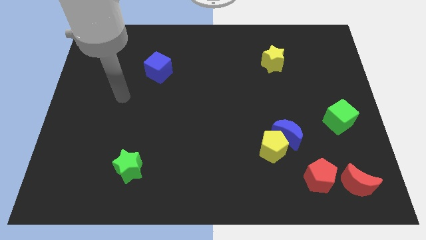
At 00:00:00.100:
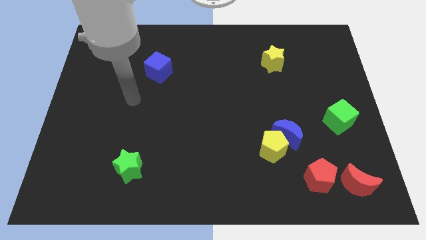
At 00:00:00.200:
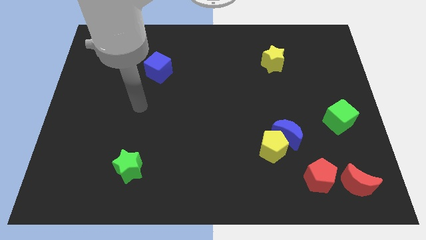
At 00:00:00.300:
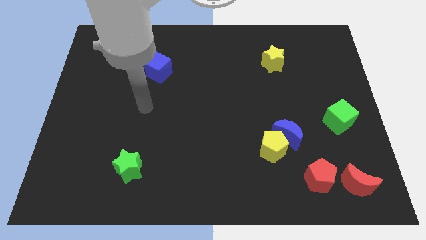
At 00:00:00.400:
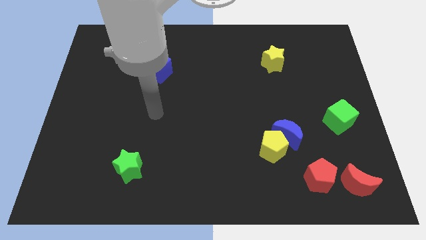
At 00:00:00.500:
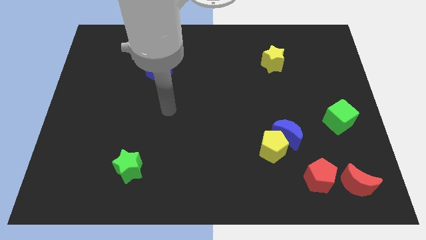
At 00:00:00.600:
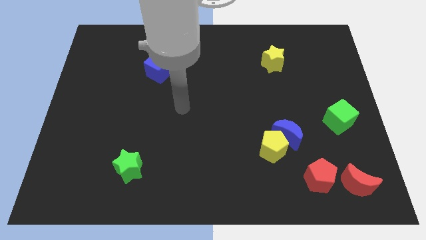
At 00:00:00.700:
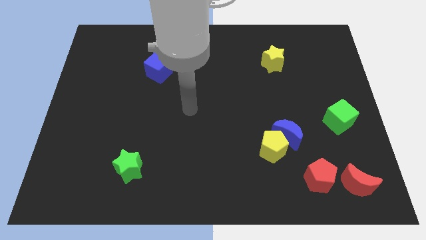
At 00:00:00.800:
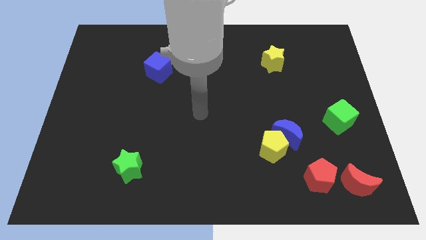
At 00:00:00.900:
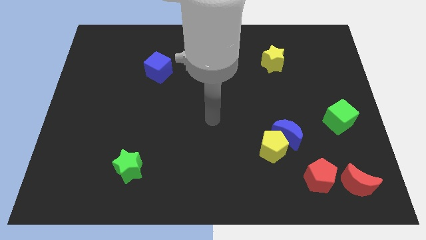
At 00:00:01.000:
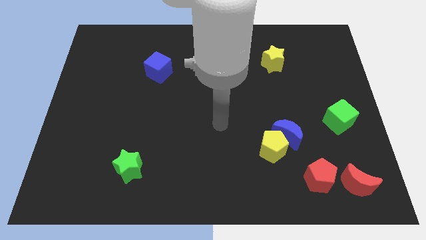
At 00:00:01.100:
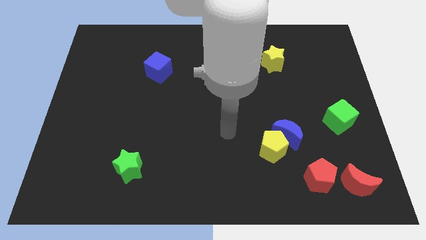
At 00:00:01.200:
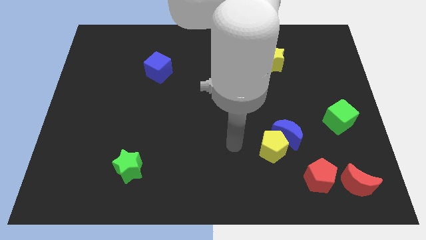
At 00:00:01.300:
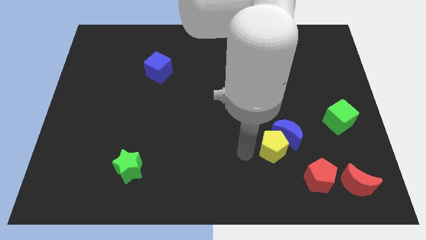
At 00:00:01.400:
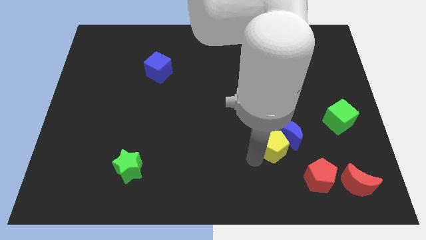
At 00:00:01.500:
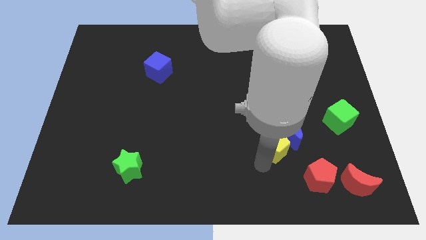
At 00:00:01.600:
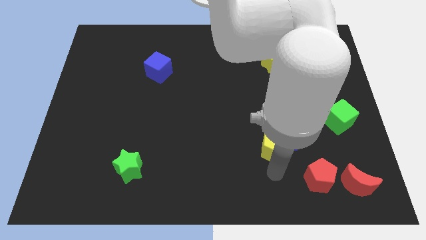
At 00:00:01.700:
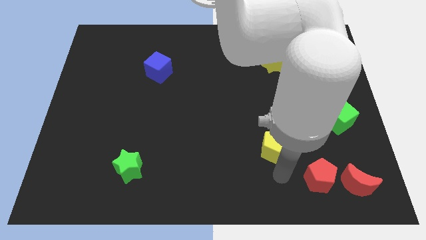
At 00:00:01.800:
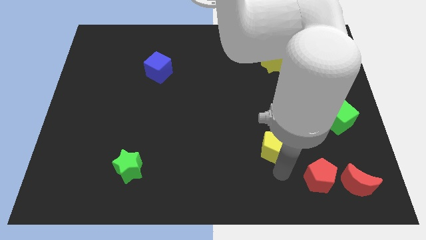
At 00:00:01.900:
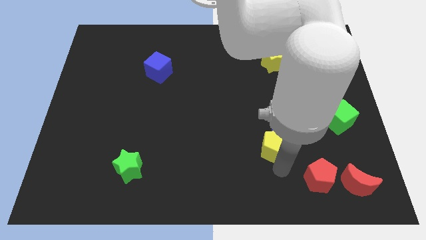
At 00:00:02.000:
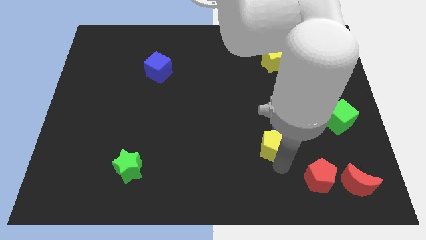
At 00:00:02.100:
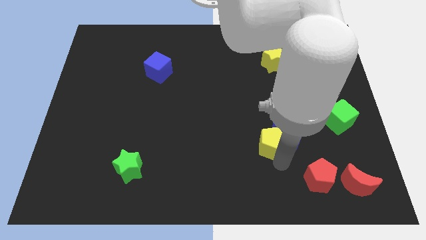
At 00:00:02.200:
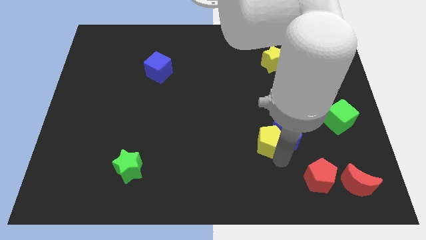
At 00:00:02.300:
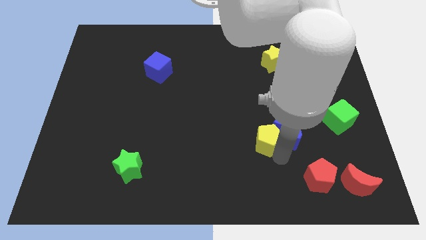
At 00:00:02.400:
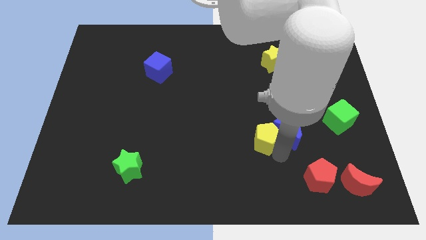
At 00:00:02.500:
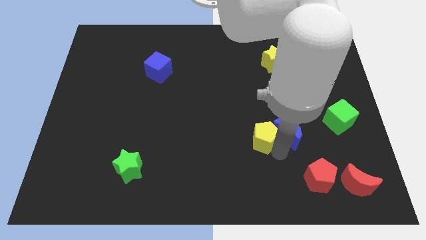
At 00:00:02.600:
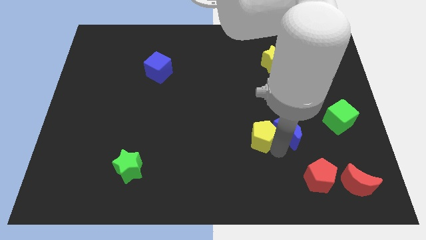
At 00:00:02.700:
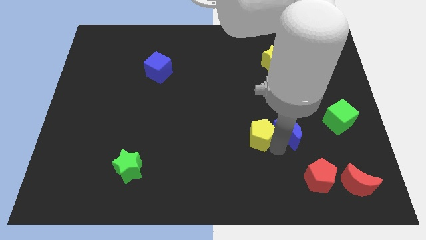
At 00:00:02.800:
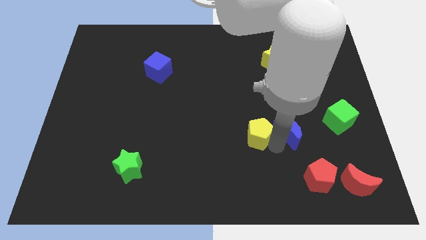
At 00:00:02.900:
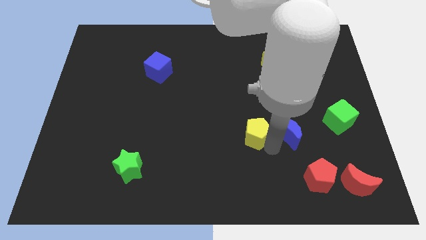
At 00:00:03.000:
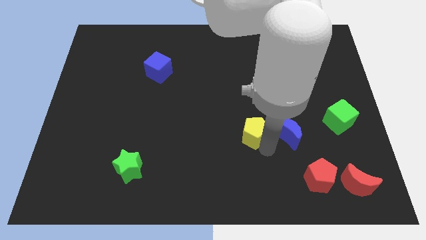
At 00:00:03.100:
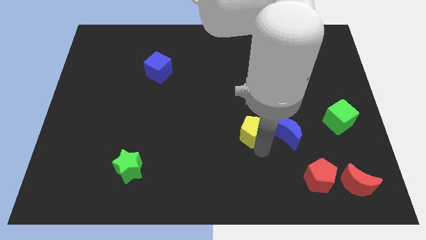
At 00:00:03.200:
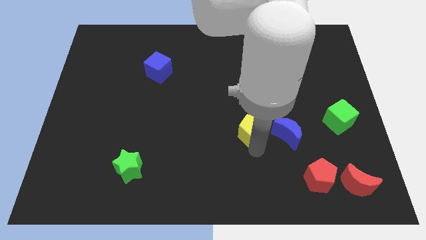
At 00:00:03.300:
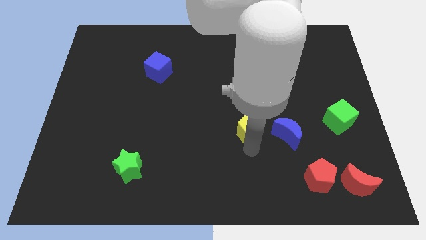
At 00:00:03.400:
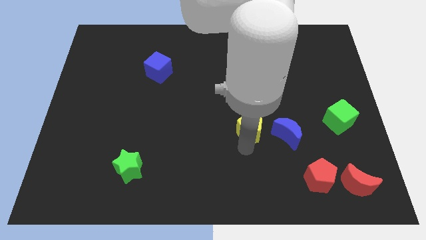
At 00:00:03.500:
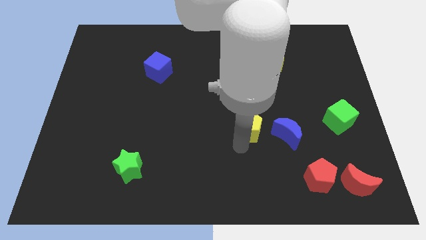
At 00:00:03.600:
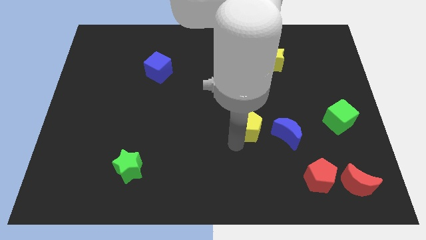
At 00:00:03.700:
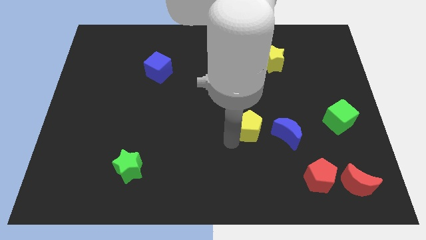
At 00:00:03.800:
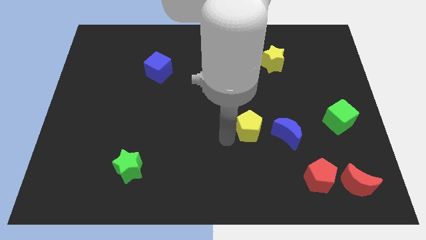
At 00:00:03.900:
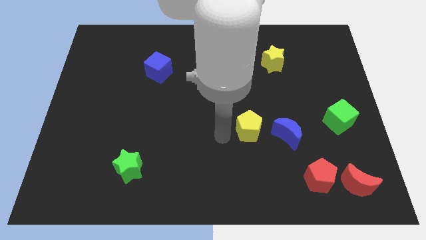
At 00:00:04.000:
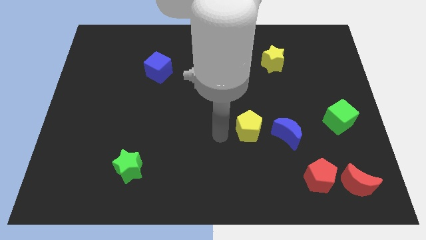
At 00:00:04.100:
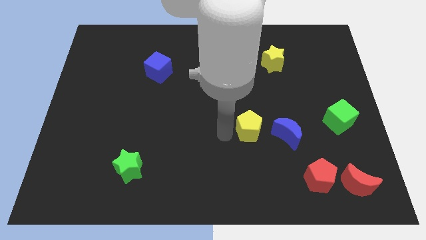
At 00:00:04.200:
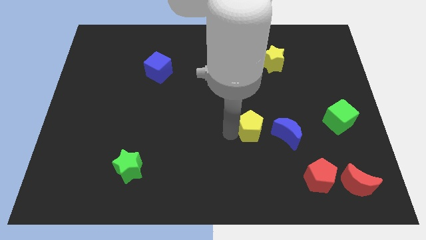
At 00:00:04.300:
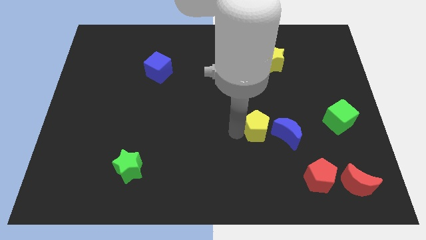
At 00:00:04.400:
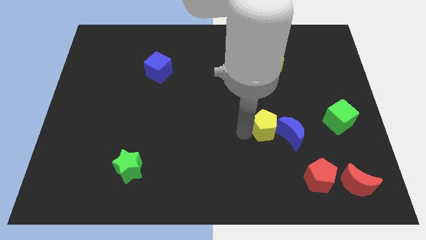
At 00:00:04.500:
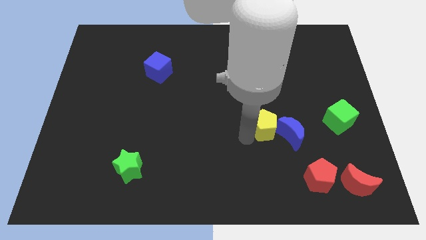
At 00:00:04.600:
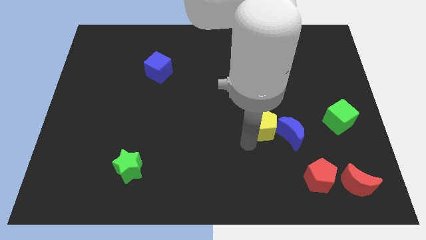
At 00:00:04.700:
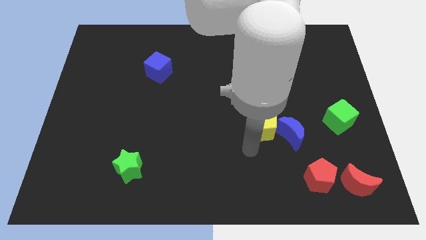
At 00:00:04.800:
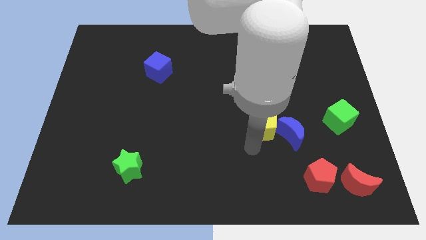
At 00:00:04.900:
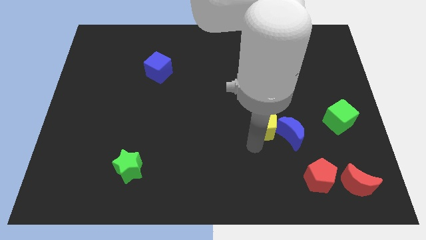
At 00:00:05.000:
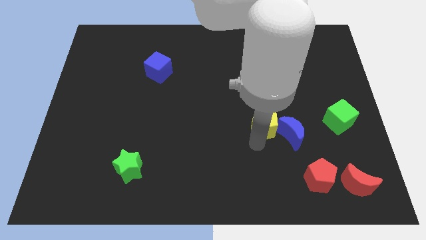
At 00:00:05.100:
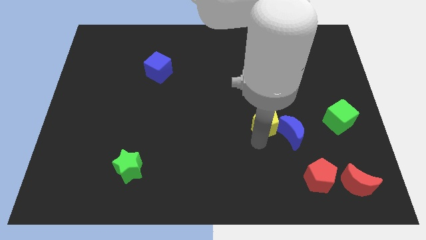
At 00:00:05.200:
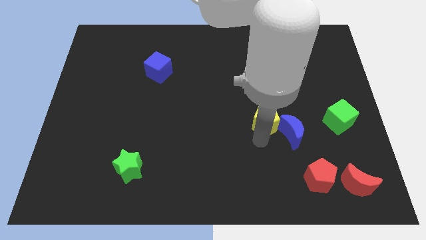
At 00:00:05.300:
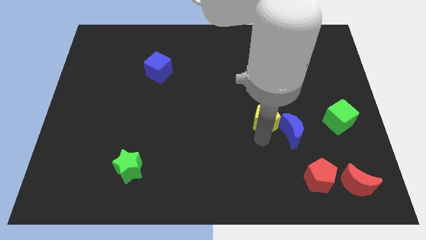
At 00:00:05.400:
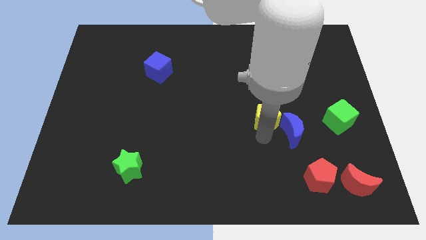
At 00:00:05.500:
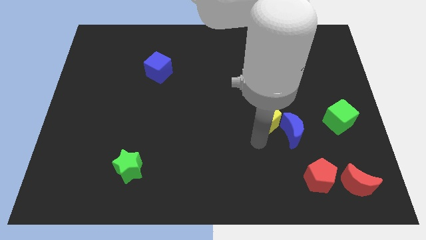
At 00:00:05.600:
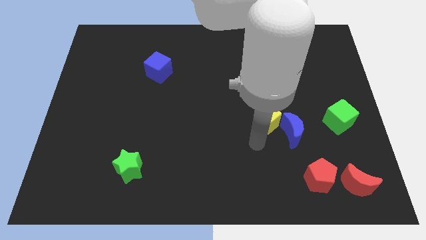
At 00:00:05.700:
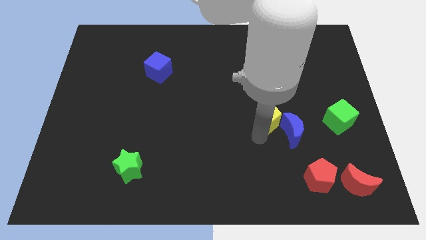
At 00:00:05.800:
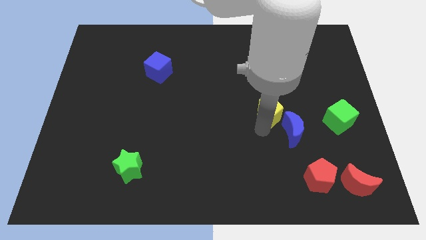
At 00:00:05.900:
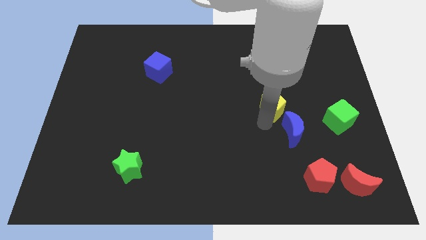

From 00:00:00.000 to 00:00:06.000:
put the yellow pentagon to the bottom of the yellow star
